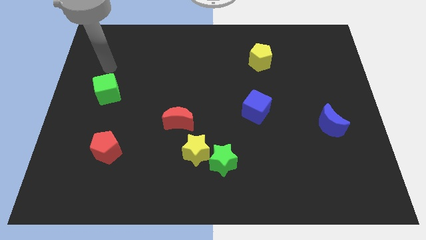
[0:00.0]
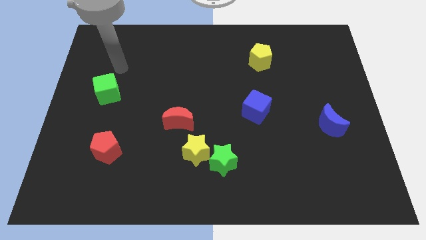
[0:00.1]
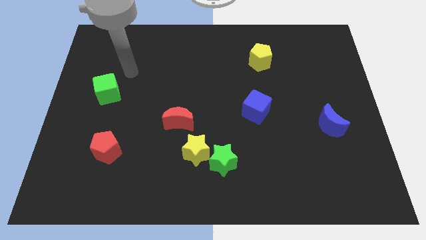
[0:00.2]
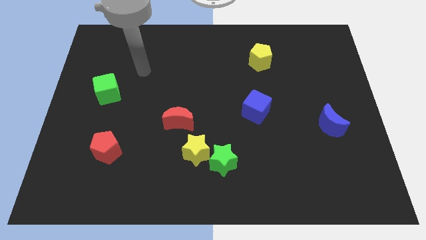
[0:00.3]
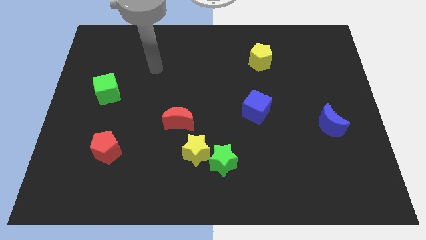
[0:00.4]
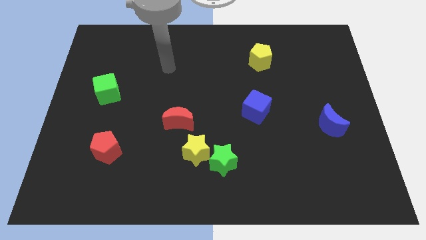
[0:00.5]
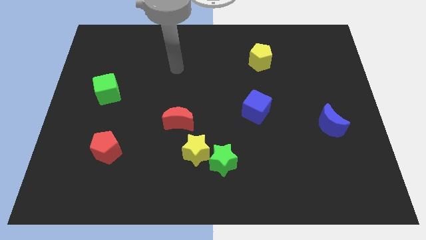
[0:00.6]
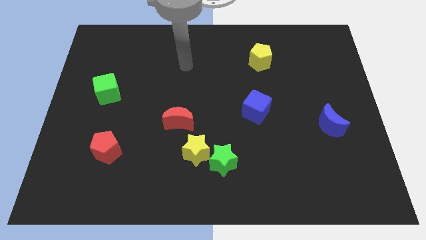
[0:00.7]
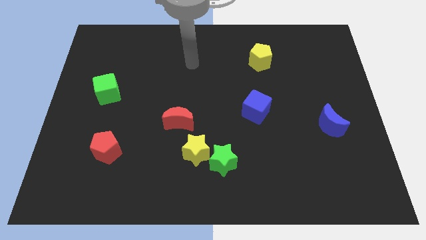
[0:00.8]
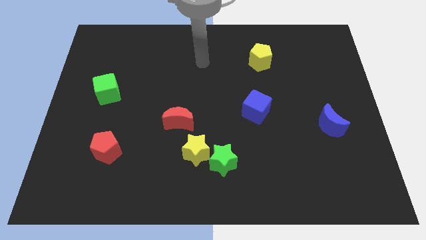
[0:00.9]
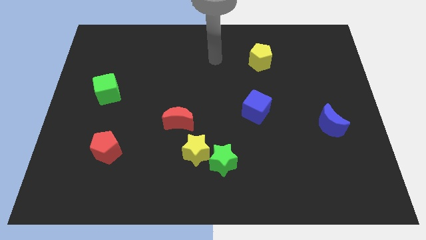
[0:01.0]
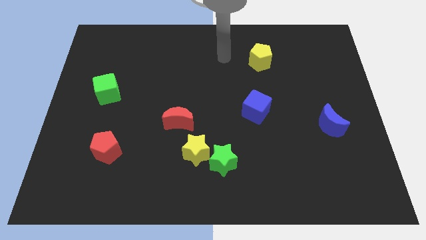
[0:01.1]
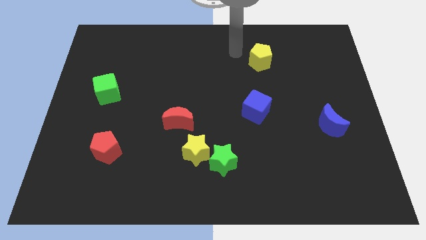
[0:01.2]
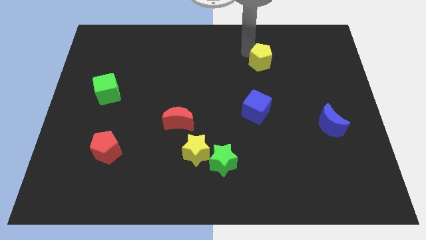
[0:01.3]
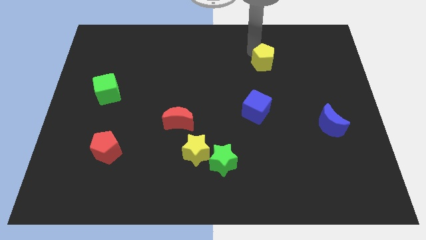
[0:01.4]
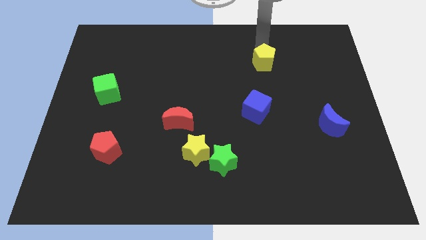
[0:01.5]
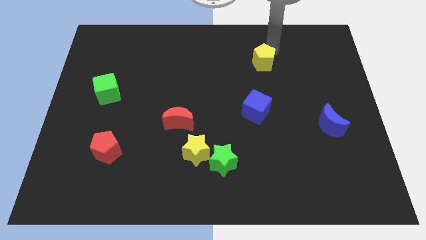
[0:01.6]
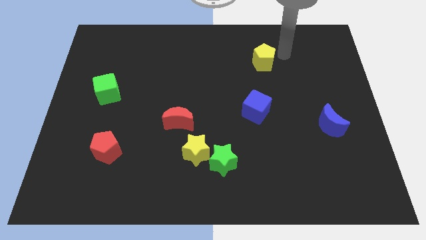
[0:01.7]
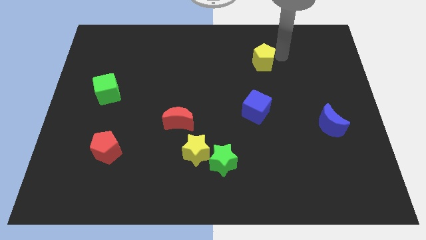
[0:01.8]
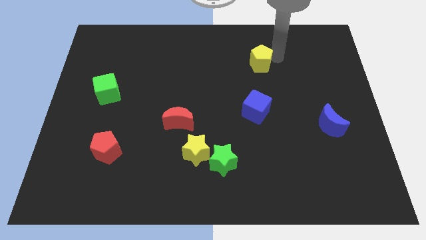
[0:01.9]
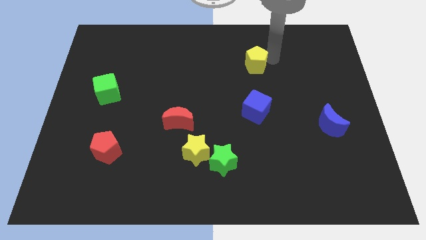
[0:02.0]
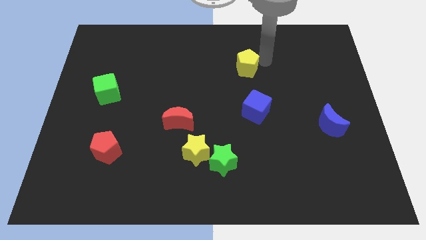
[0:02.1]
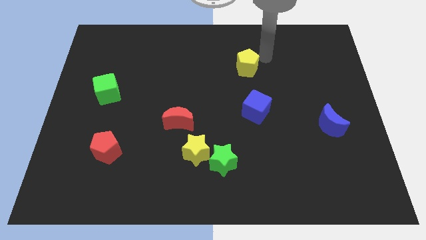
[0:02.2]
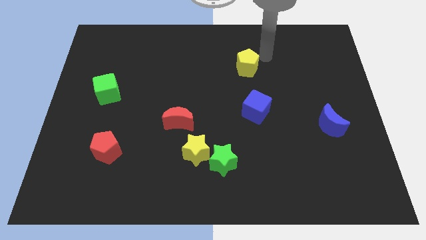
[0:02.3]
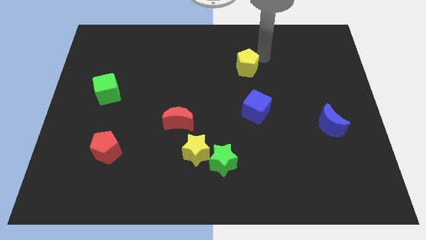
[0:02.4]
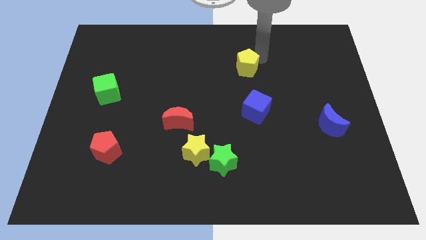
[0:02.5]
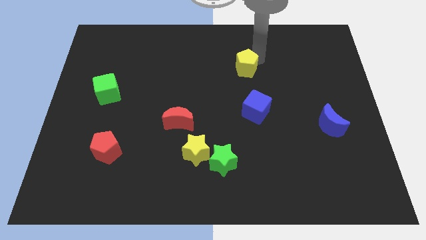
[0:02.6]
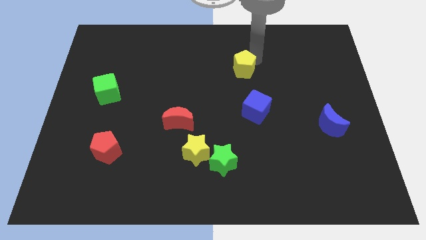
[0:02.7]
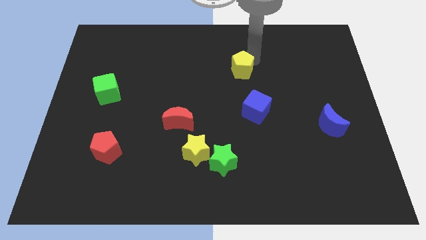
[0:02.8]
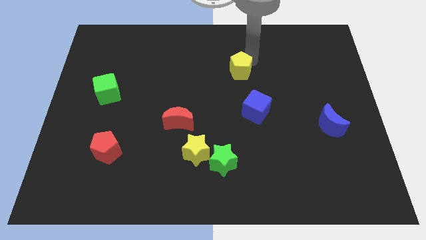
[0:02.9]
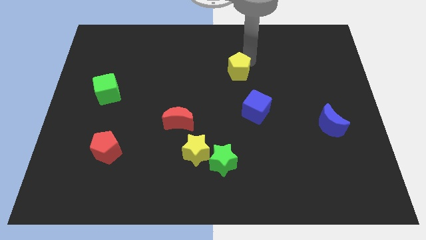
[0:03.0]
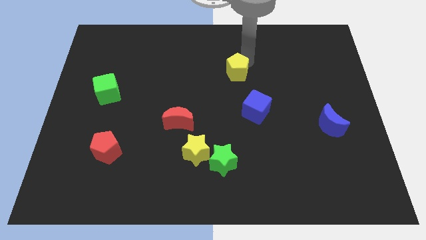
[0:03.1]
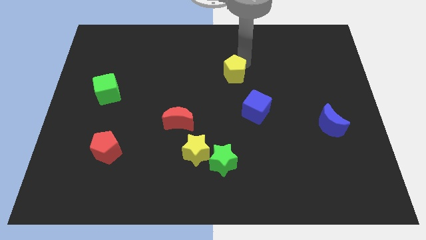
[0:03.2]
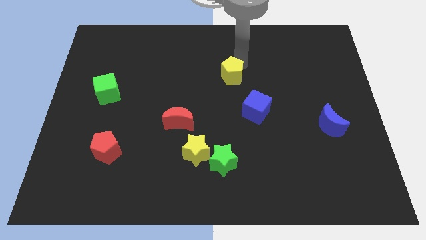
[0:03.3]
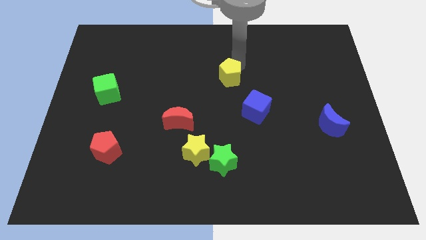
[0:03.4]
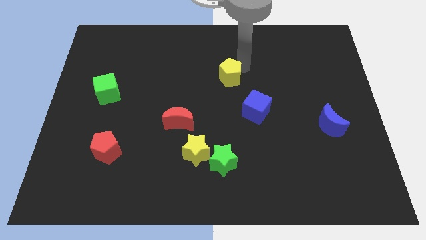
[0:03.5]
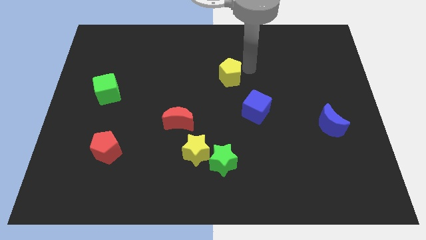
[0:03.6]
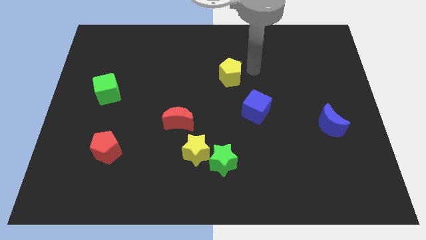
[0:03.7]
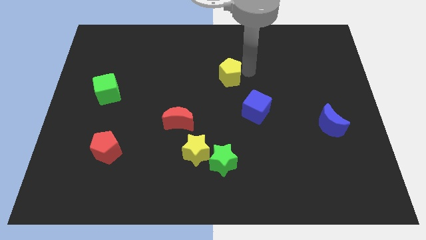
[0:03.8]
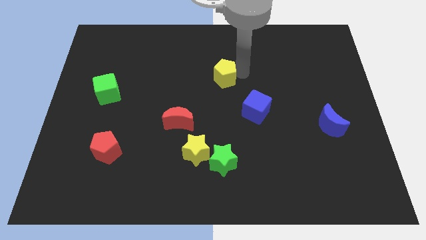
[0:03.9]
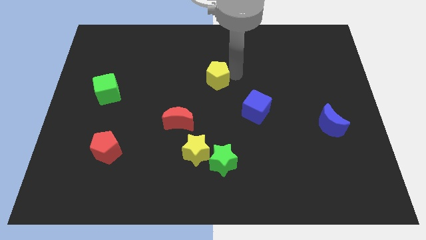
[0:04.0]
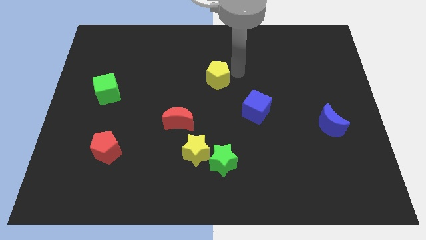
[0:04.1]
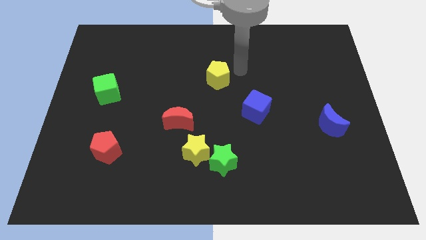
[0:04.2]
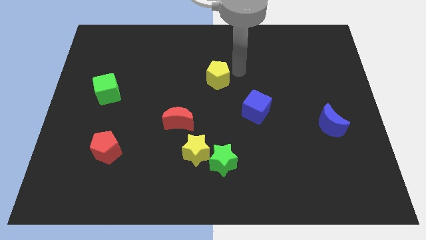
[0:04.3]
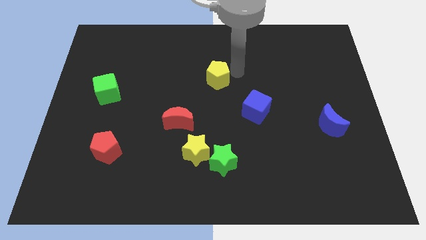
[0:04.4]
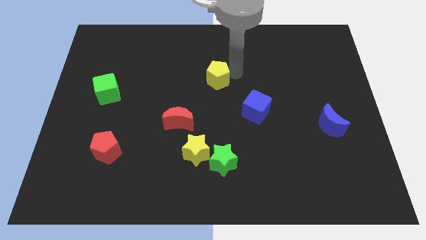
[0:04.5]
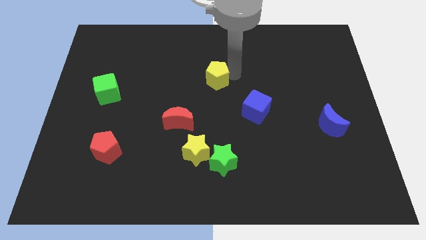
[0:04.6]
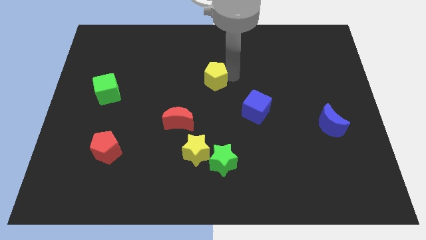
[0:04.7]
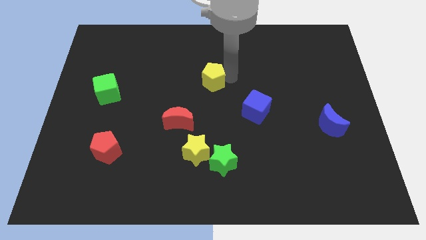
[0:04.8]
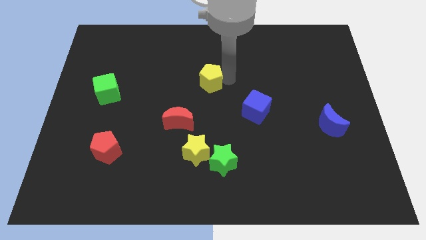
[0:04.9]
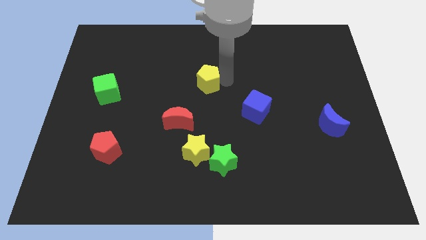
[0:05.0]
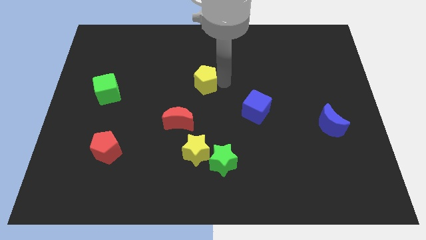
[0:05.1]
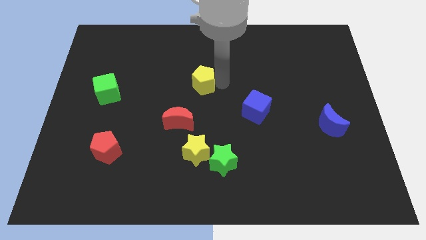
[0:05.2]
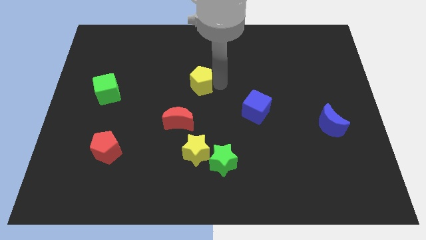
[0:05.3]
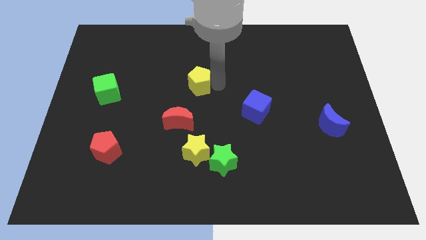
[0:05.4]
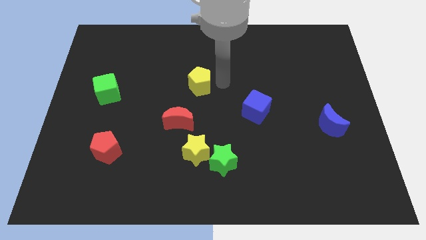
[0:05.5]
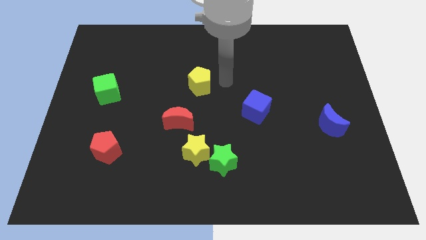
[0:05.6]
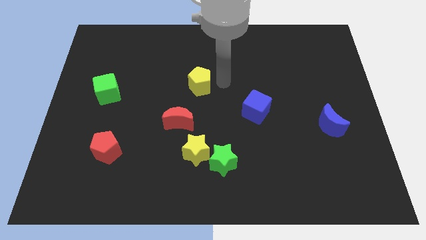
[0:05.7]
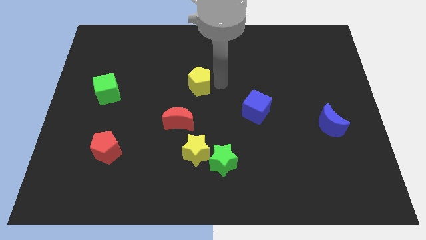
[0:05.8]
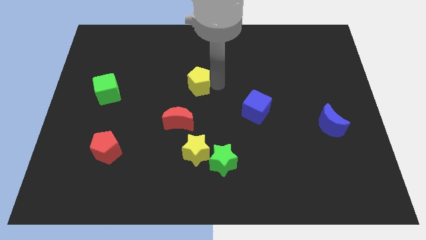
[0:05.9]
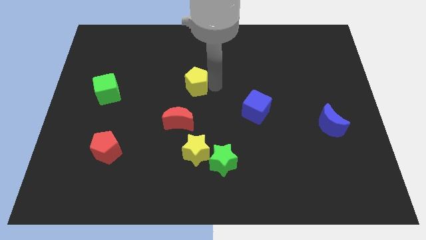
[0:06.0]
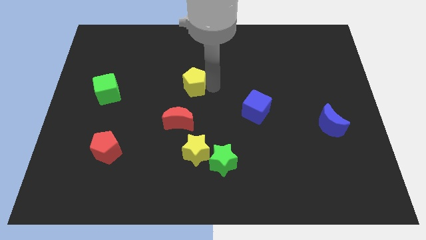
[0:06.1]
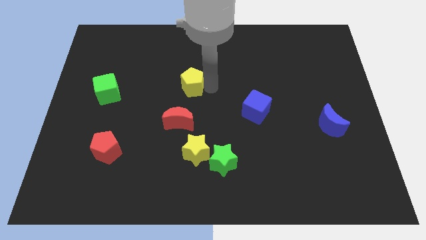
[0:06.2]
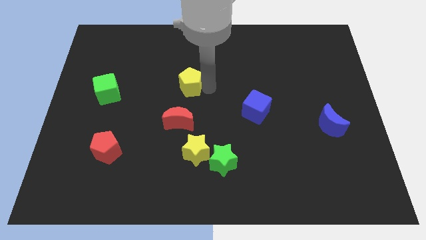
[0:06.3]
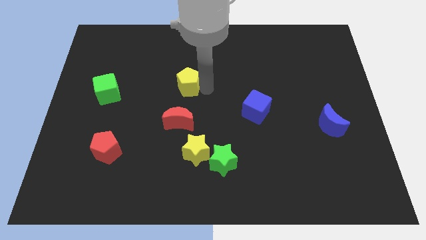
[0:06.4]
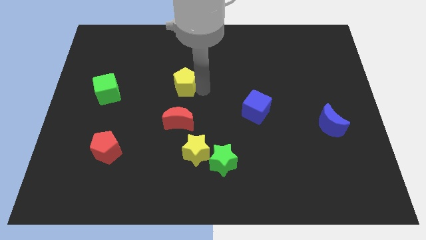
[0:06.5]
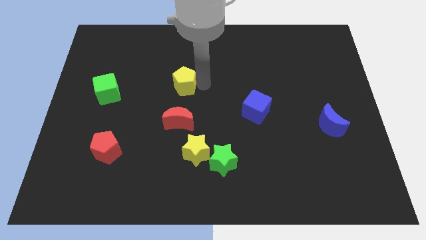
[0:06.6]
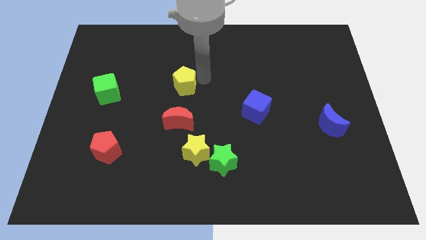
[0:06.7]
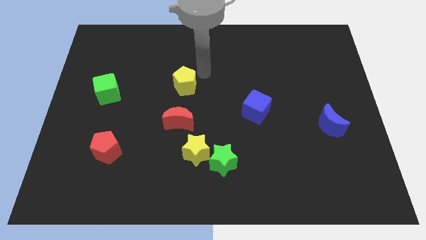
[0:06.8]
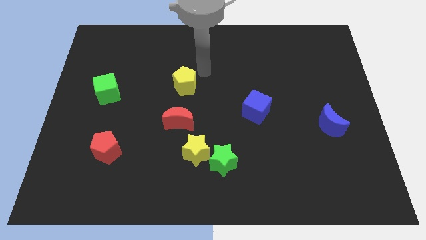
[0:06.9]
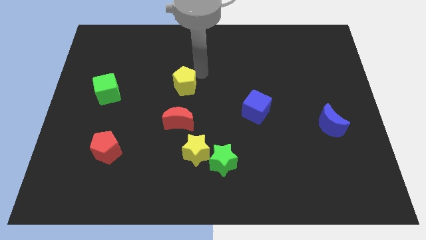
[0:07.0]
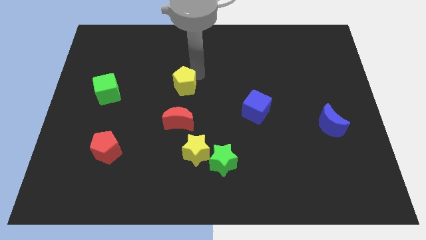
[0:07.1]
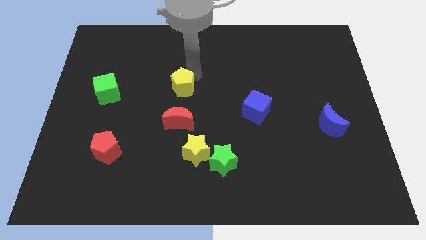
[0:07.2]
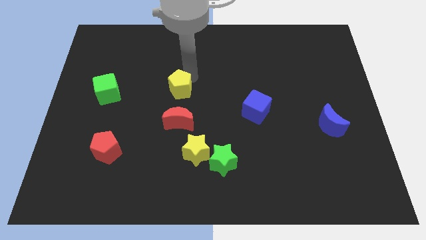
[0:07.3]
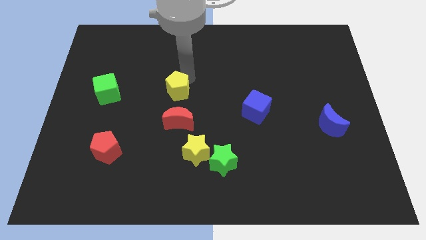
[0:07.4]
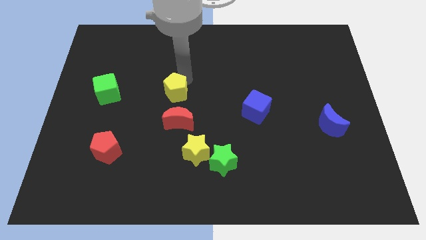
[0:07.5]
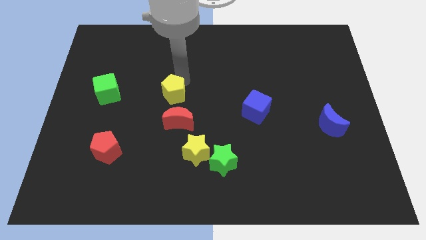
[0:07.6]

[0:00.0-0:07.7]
slide the yellow pentagon to the top left of the red moon
